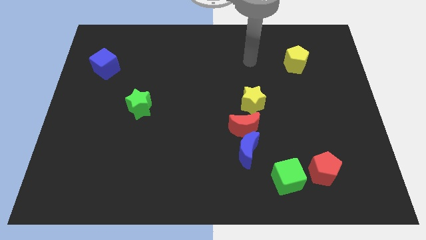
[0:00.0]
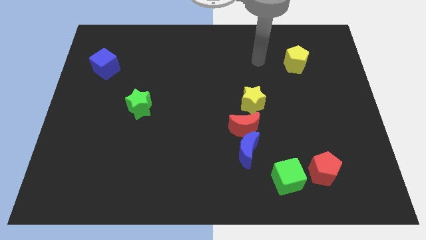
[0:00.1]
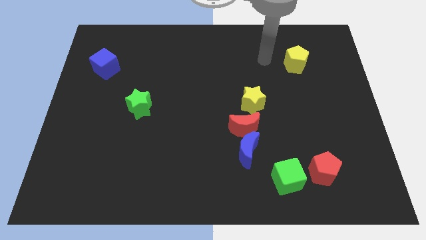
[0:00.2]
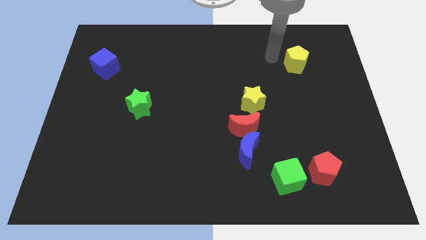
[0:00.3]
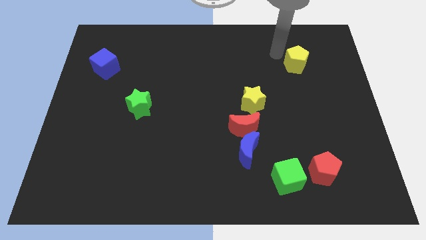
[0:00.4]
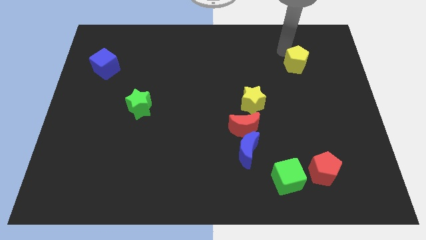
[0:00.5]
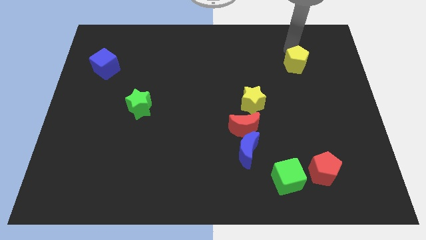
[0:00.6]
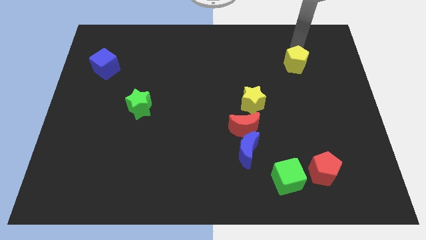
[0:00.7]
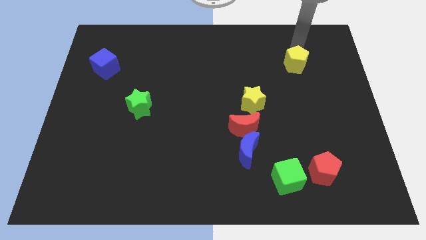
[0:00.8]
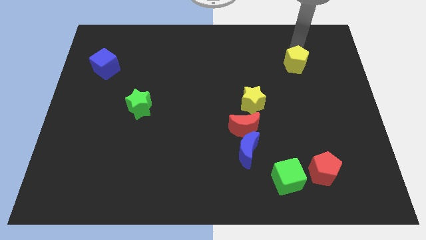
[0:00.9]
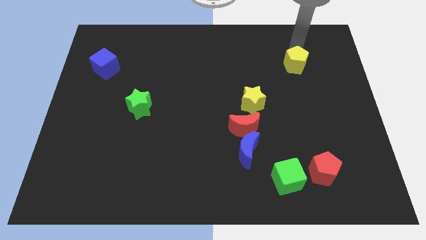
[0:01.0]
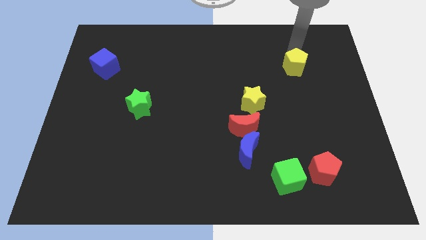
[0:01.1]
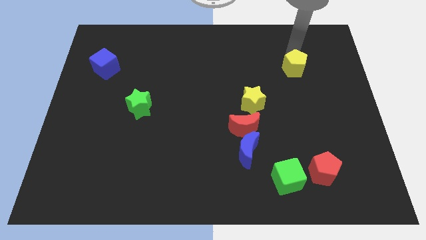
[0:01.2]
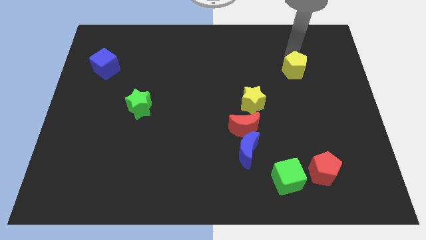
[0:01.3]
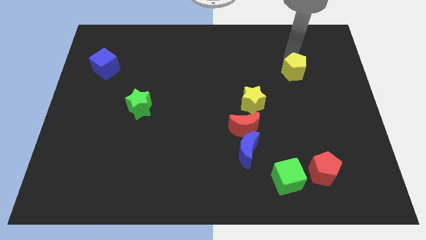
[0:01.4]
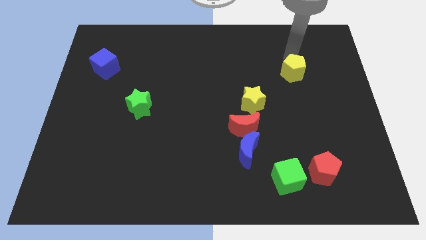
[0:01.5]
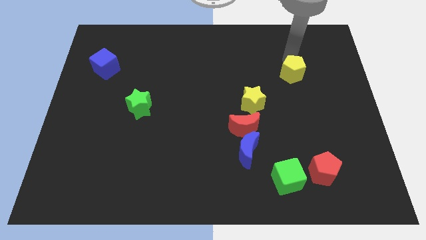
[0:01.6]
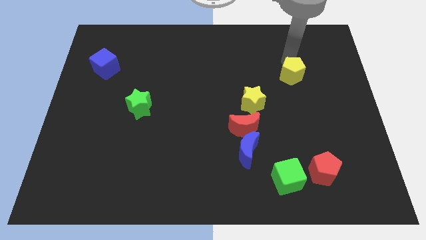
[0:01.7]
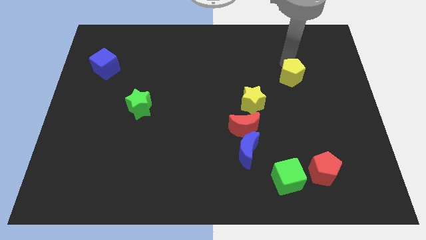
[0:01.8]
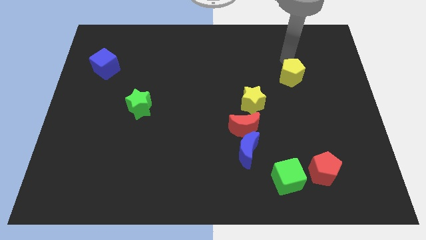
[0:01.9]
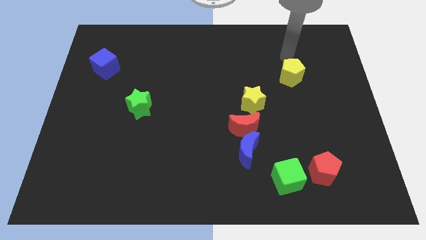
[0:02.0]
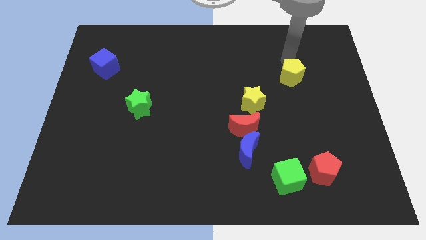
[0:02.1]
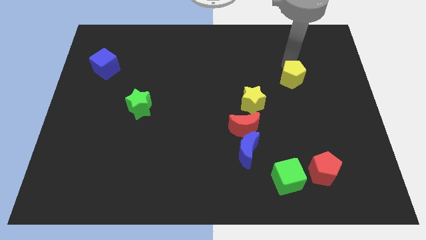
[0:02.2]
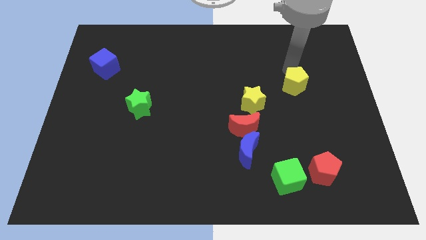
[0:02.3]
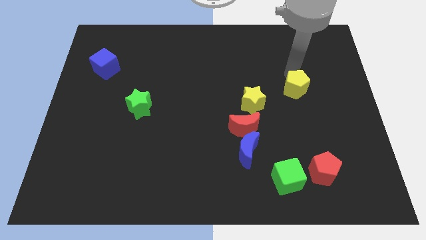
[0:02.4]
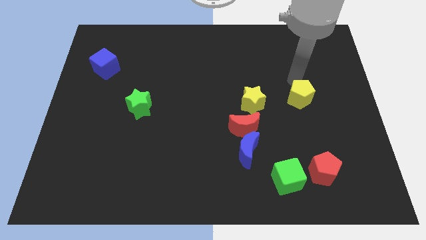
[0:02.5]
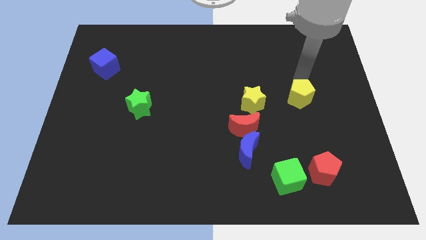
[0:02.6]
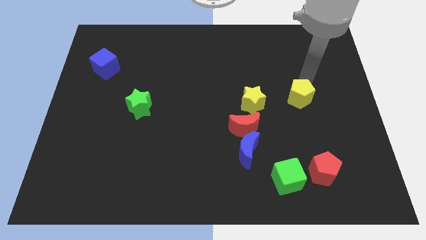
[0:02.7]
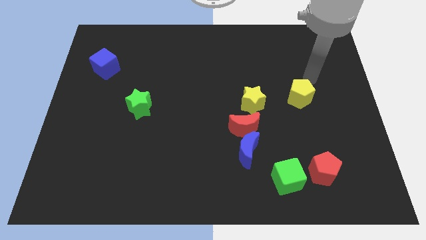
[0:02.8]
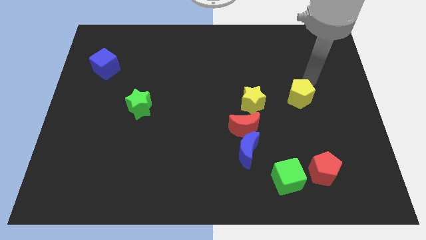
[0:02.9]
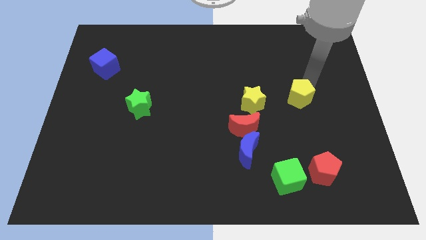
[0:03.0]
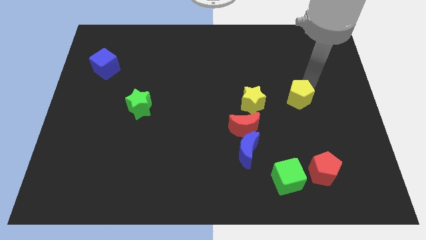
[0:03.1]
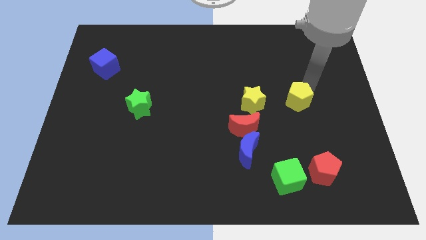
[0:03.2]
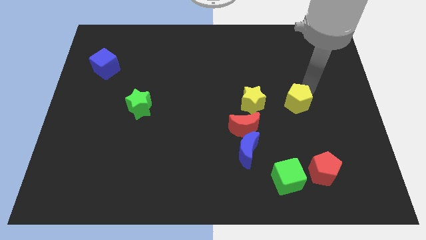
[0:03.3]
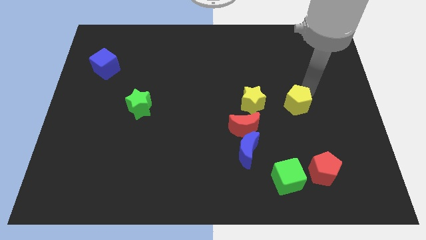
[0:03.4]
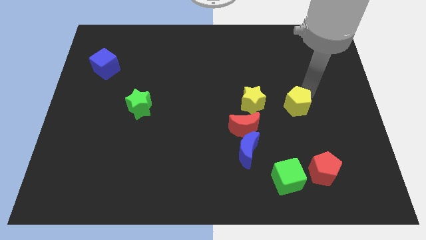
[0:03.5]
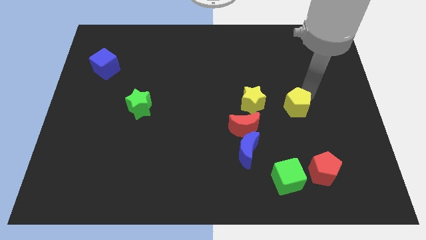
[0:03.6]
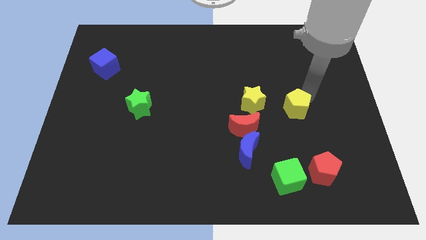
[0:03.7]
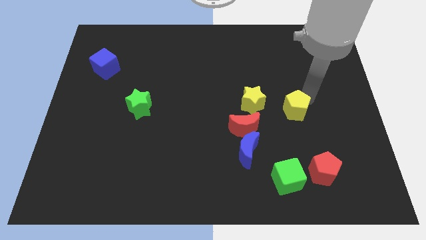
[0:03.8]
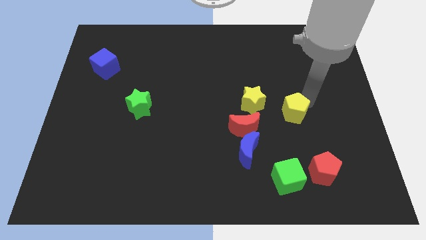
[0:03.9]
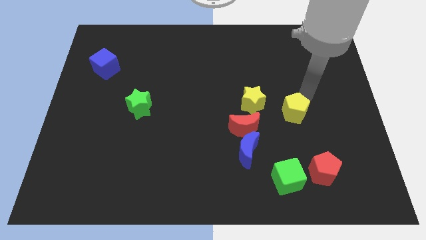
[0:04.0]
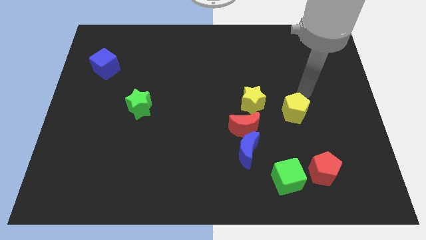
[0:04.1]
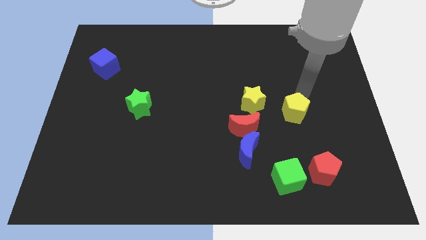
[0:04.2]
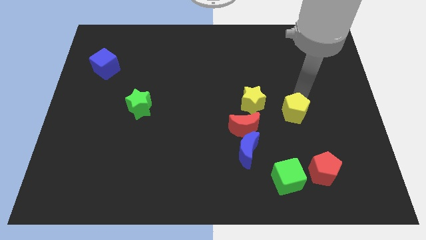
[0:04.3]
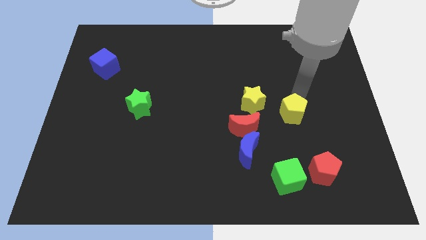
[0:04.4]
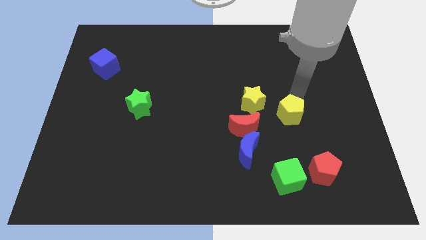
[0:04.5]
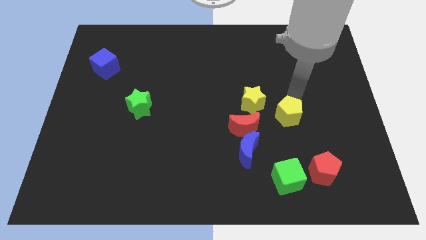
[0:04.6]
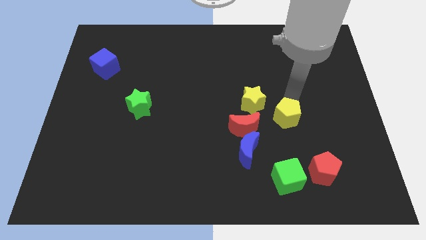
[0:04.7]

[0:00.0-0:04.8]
slide the yellow pentagon to the top of the green cube

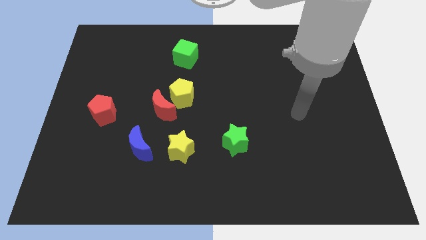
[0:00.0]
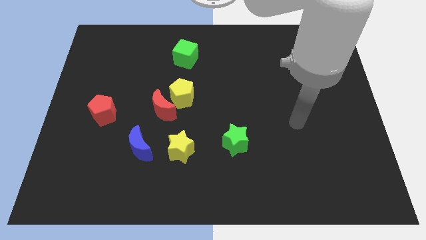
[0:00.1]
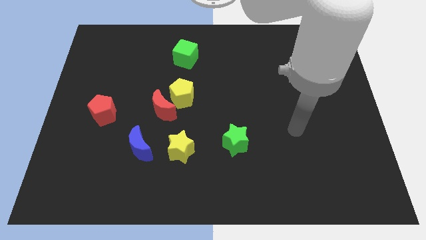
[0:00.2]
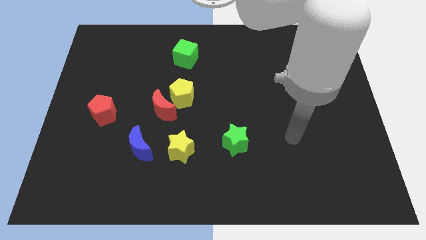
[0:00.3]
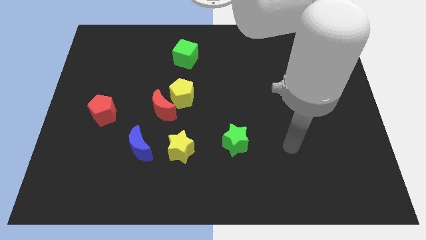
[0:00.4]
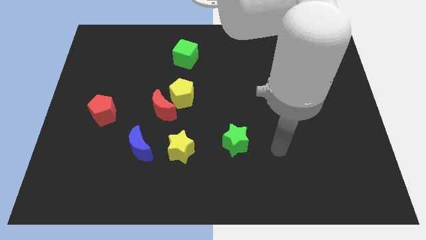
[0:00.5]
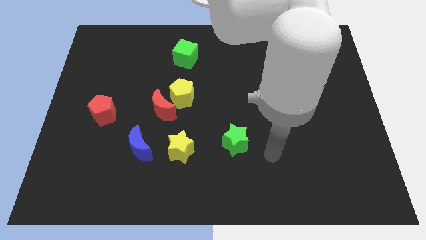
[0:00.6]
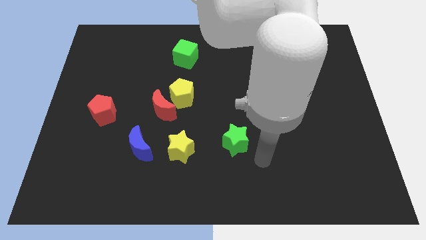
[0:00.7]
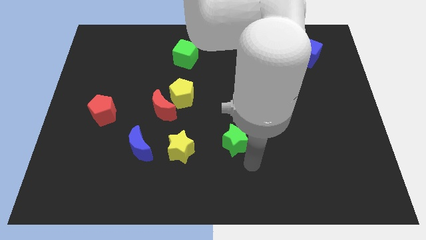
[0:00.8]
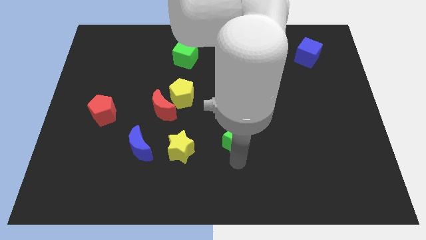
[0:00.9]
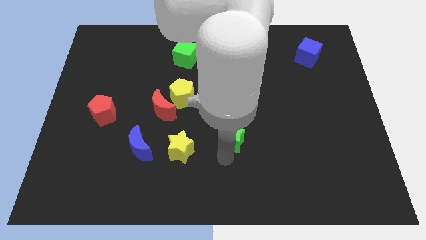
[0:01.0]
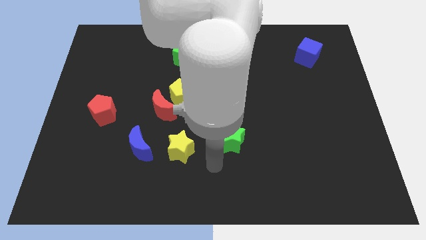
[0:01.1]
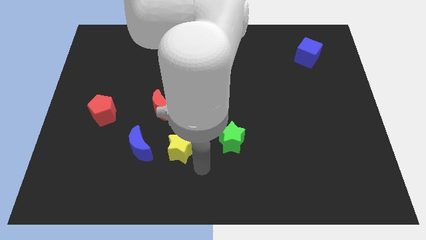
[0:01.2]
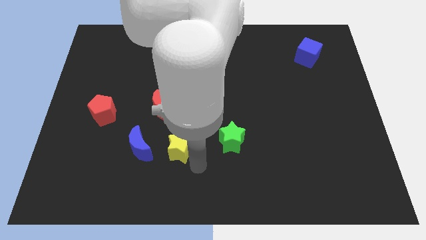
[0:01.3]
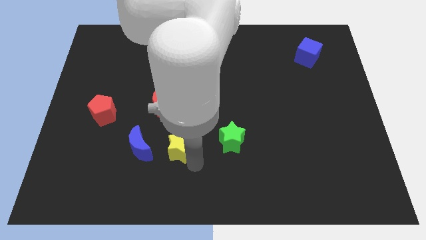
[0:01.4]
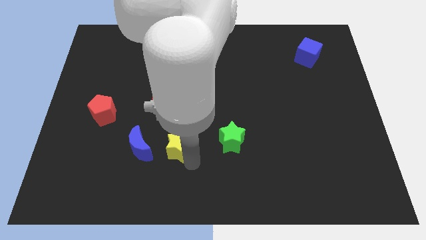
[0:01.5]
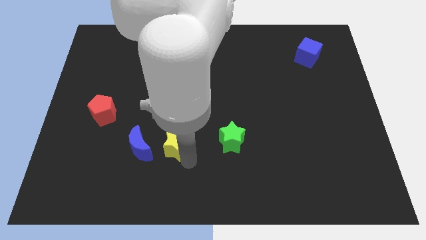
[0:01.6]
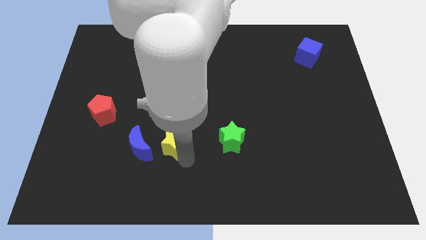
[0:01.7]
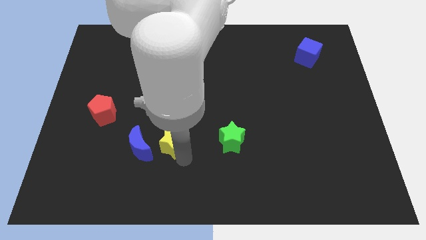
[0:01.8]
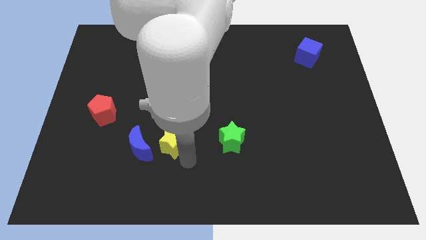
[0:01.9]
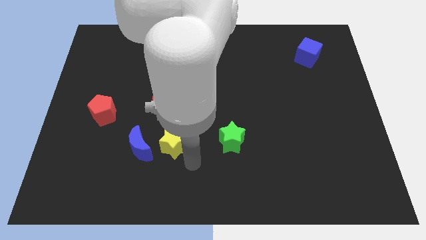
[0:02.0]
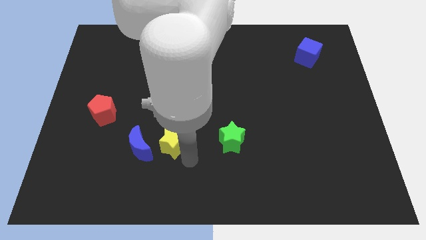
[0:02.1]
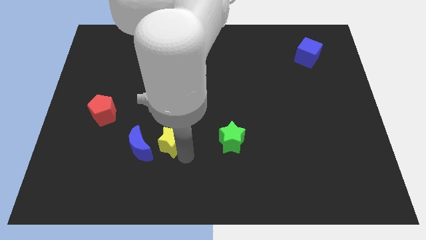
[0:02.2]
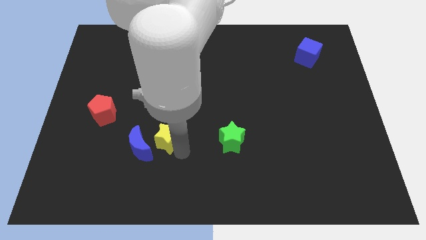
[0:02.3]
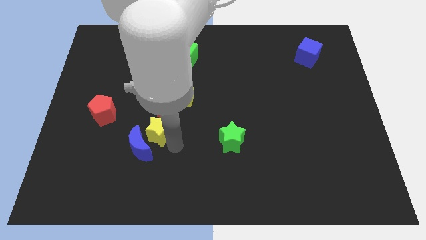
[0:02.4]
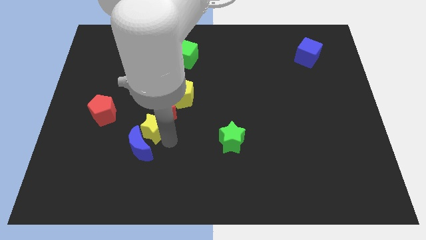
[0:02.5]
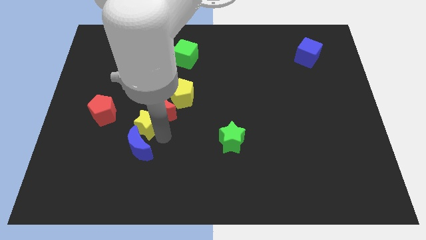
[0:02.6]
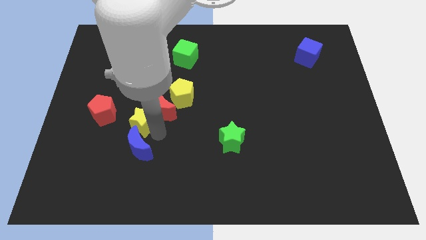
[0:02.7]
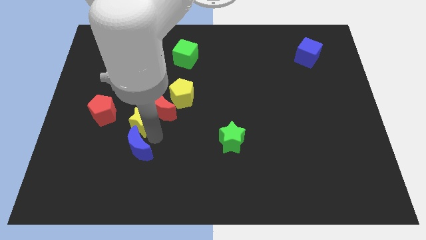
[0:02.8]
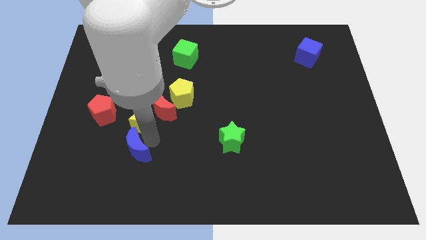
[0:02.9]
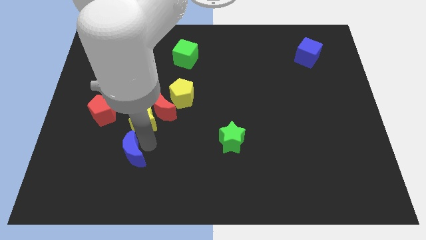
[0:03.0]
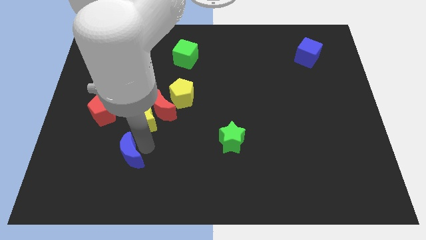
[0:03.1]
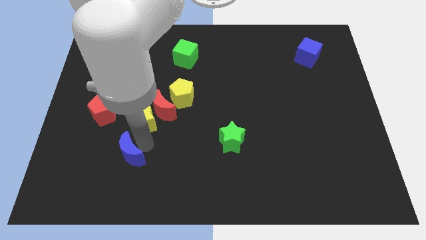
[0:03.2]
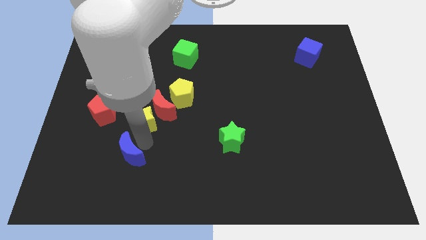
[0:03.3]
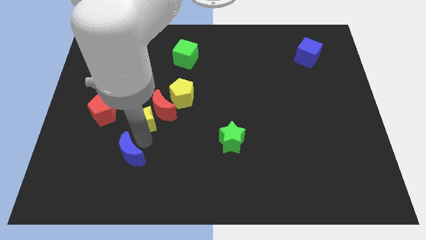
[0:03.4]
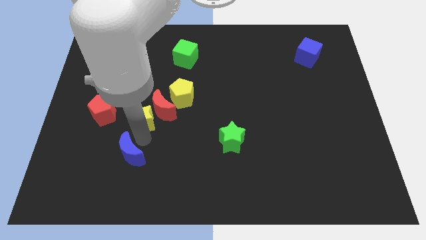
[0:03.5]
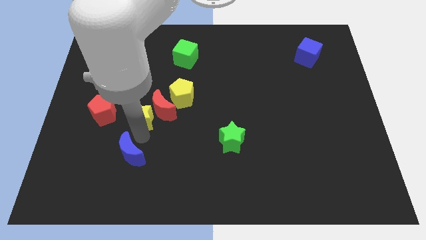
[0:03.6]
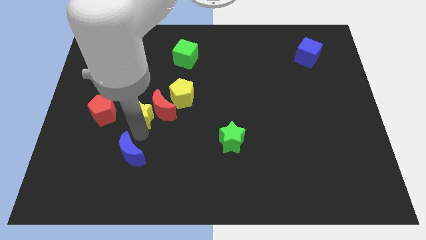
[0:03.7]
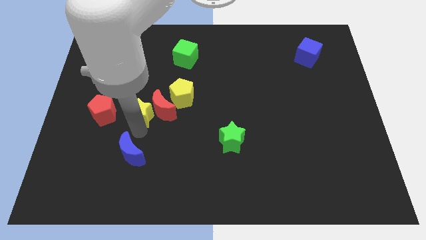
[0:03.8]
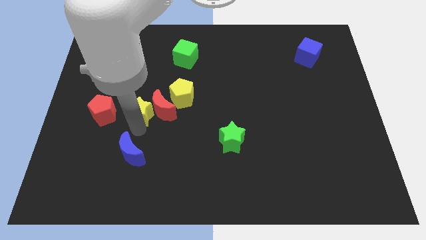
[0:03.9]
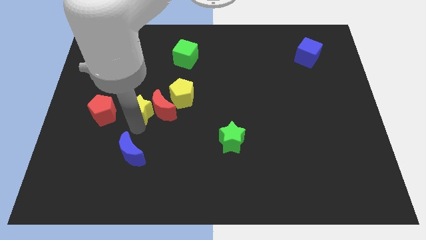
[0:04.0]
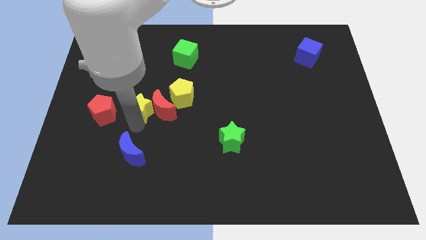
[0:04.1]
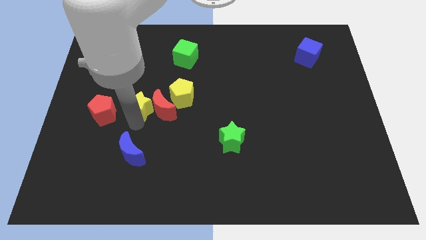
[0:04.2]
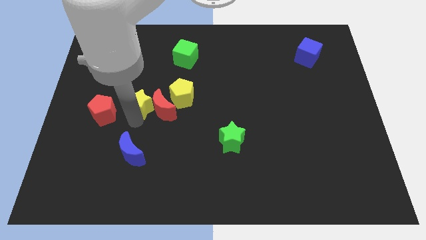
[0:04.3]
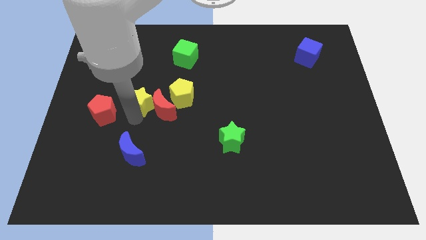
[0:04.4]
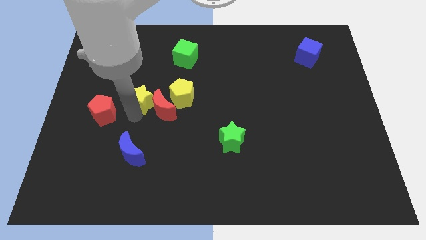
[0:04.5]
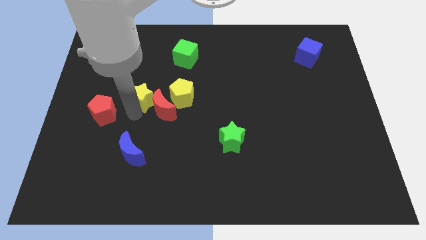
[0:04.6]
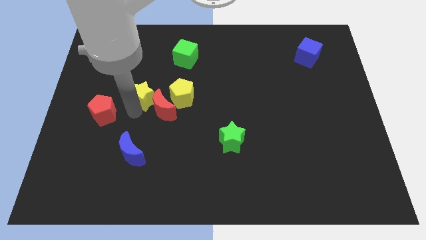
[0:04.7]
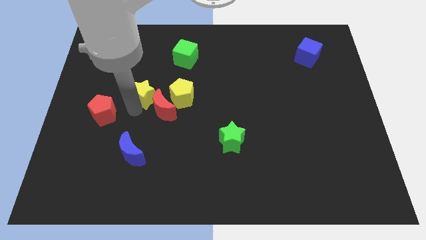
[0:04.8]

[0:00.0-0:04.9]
push the yellow star to the top of the red moon
